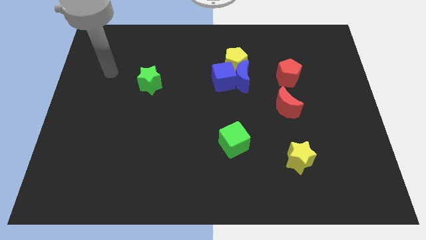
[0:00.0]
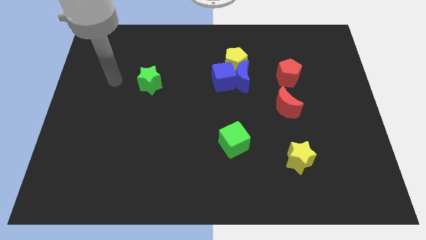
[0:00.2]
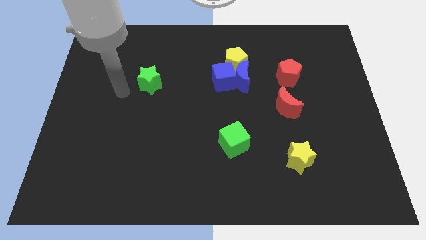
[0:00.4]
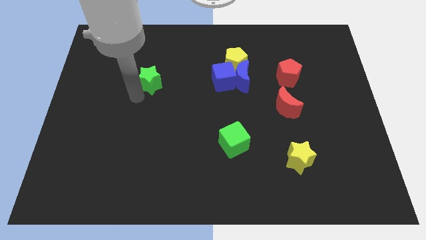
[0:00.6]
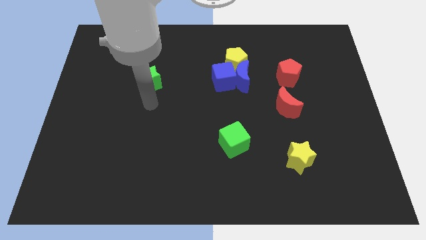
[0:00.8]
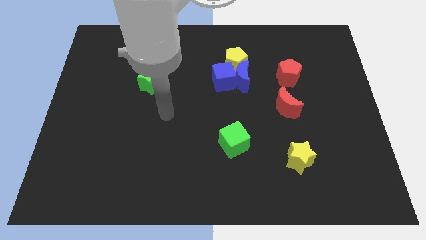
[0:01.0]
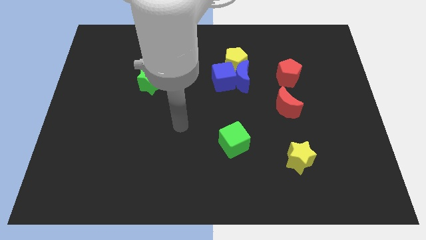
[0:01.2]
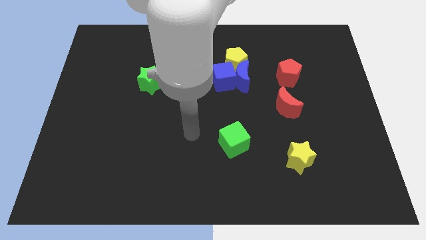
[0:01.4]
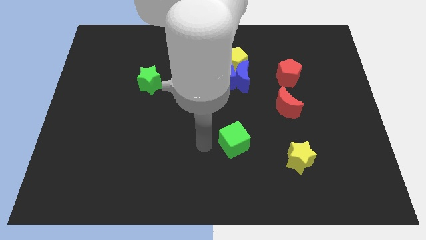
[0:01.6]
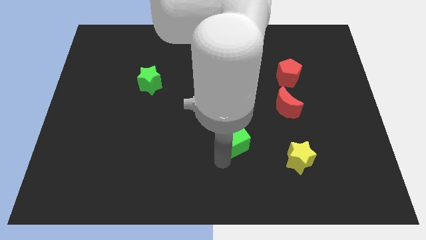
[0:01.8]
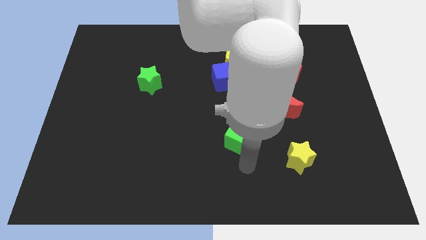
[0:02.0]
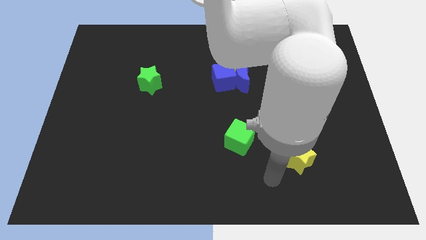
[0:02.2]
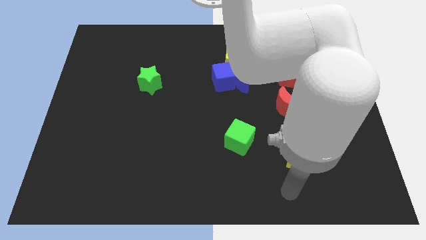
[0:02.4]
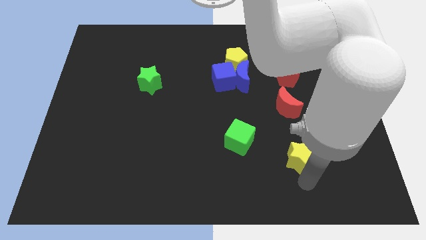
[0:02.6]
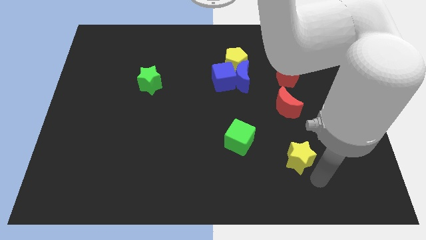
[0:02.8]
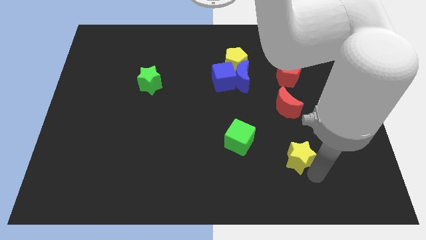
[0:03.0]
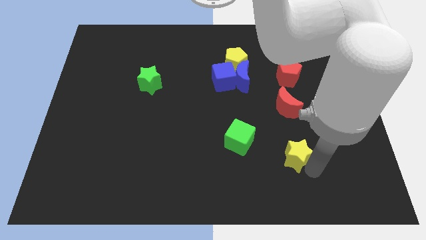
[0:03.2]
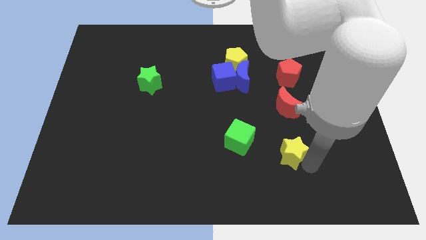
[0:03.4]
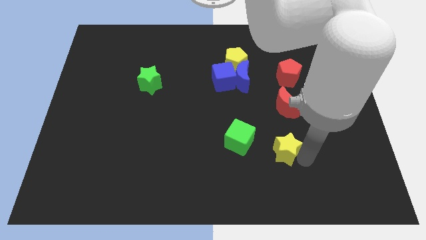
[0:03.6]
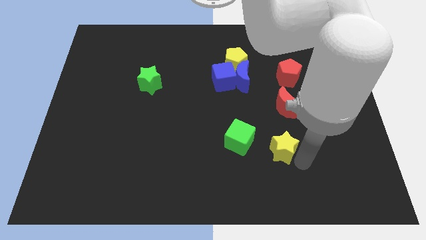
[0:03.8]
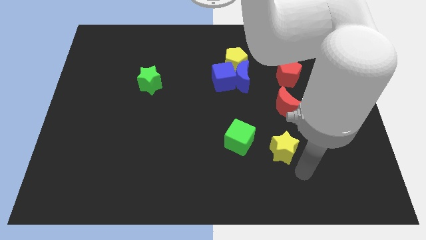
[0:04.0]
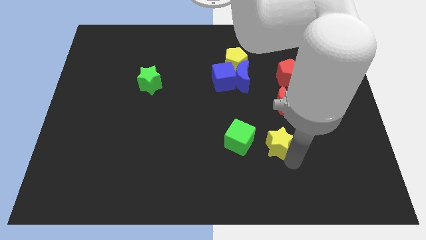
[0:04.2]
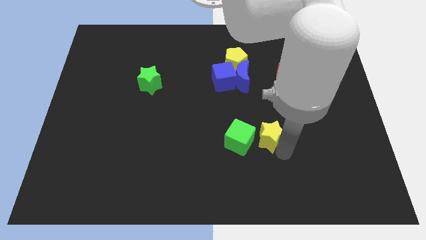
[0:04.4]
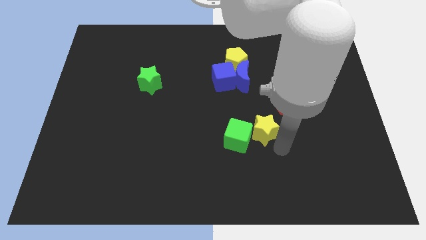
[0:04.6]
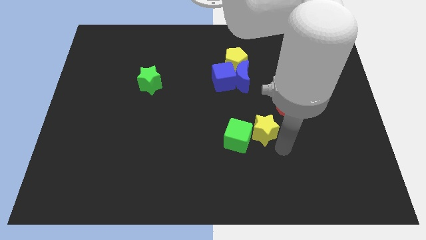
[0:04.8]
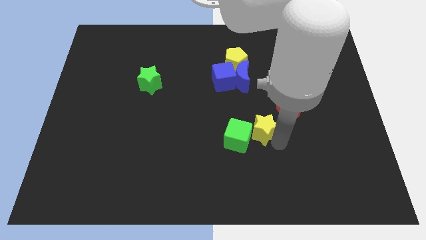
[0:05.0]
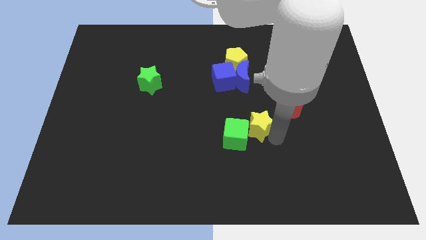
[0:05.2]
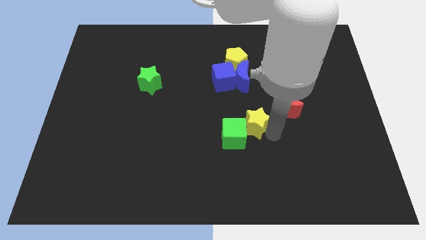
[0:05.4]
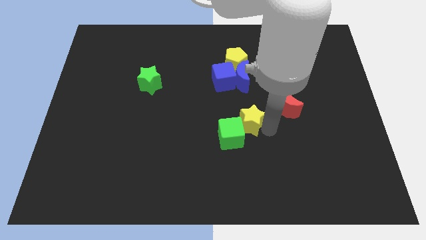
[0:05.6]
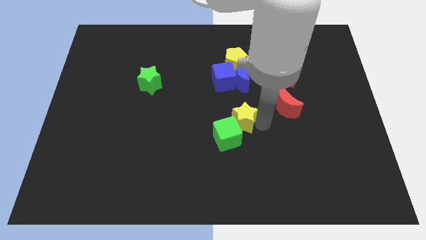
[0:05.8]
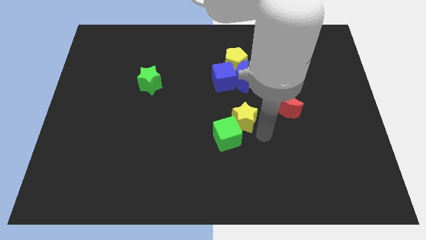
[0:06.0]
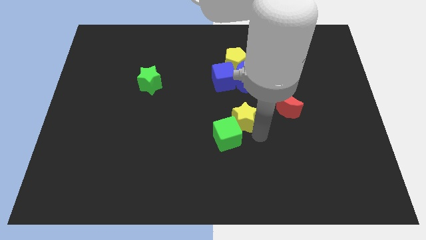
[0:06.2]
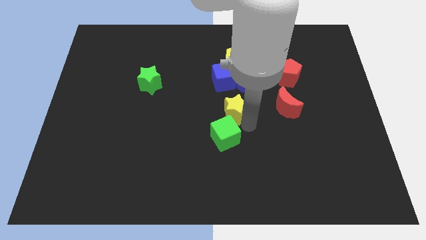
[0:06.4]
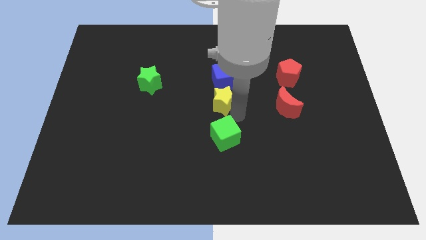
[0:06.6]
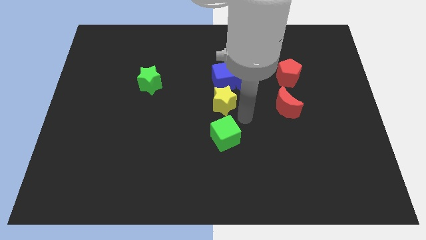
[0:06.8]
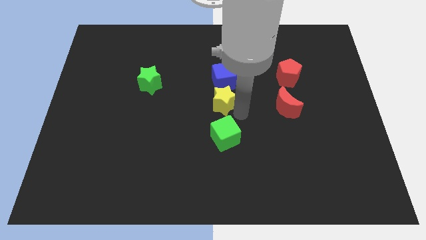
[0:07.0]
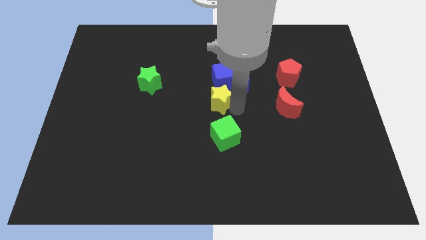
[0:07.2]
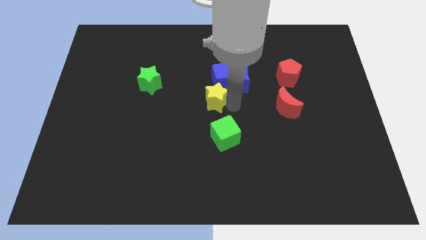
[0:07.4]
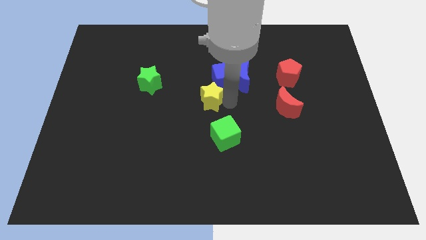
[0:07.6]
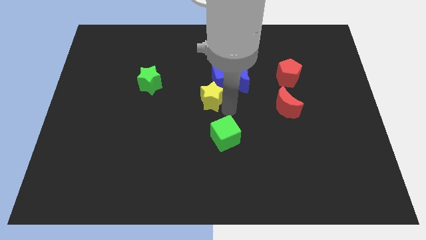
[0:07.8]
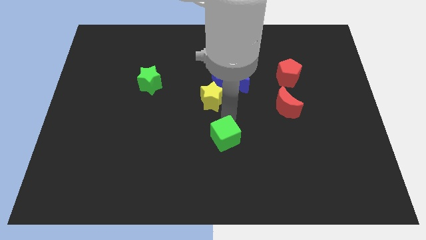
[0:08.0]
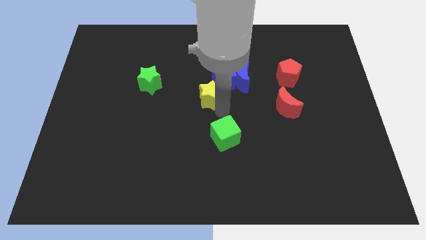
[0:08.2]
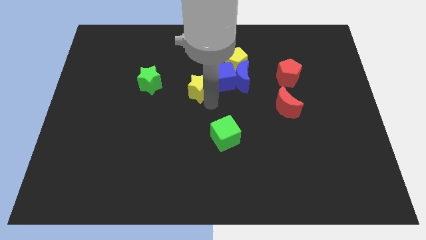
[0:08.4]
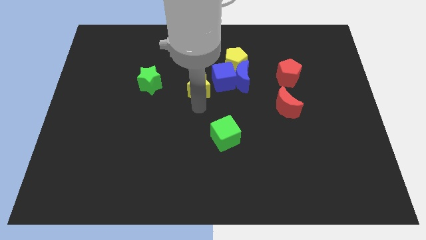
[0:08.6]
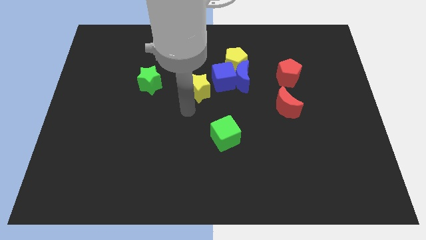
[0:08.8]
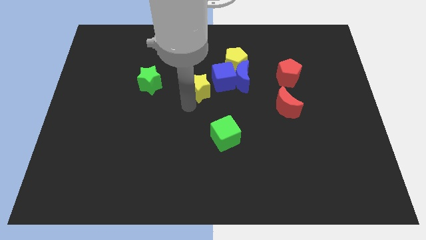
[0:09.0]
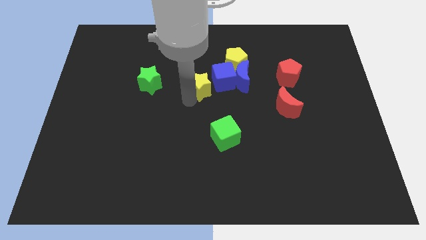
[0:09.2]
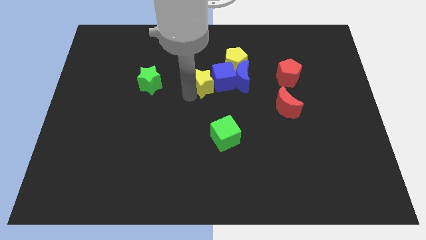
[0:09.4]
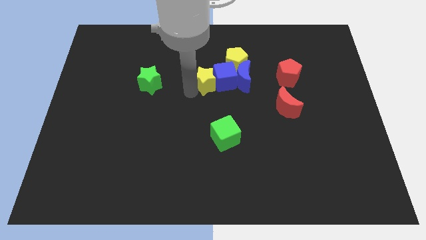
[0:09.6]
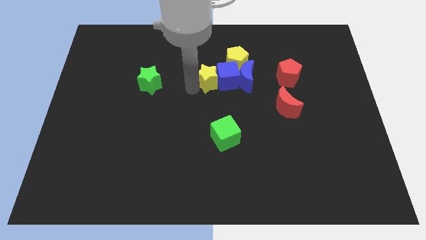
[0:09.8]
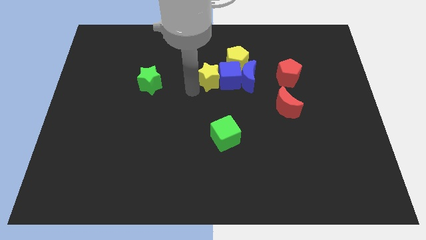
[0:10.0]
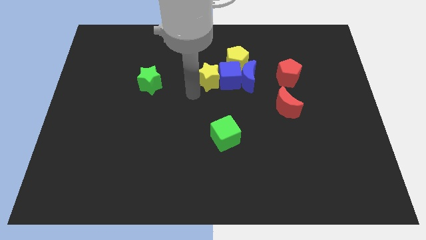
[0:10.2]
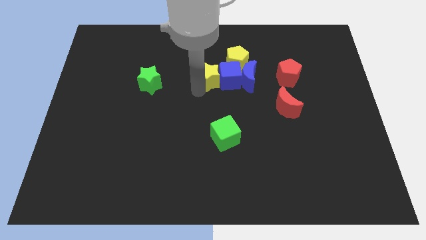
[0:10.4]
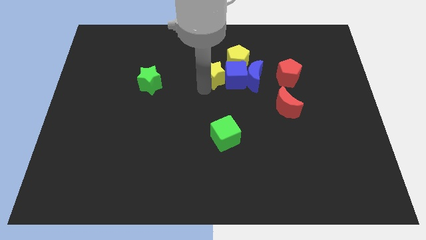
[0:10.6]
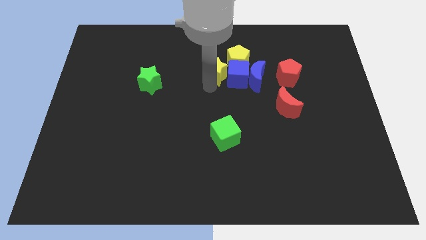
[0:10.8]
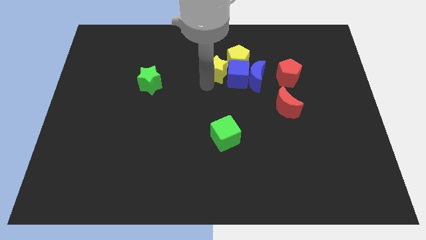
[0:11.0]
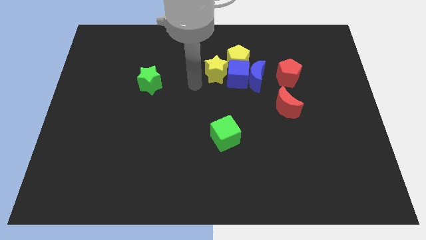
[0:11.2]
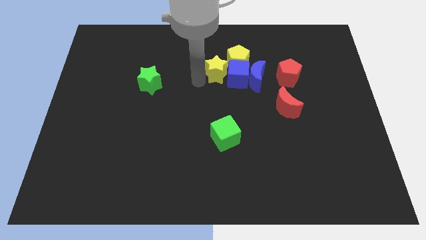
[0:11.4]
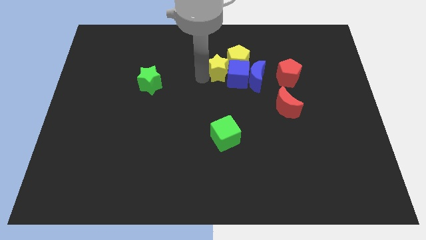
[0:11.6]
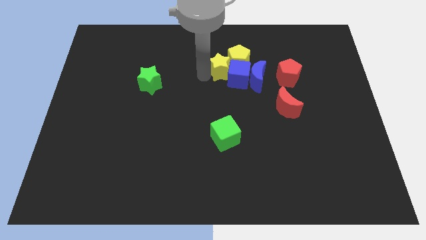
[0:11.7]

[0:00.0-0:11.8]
move the yellow star to the top left of the blue moon

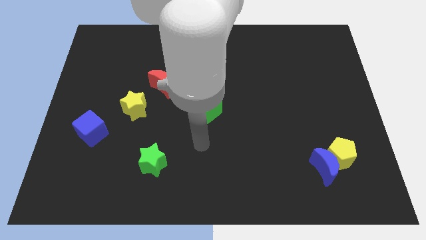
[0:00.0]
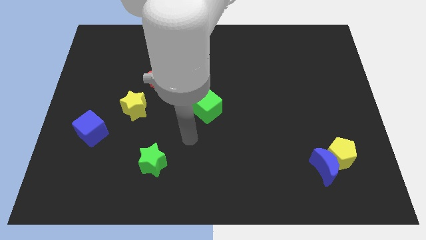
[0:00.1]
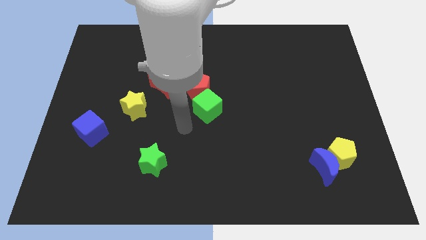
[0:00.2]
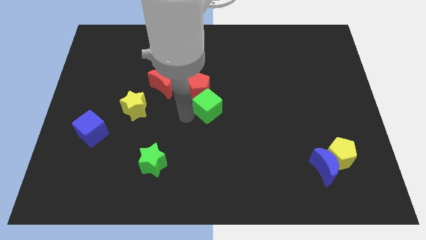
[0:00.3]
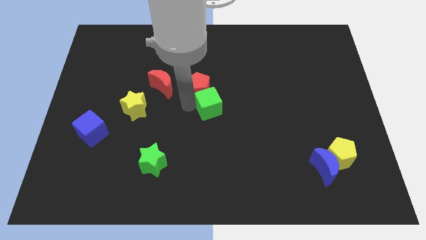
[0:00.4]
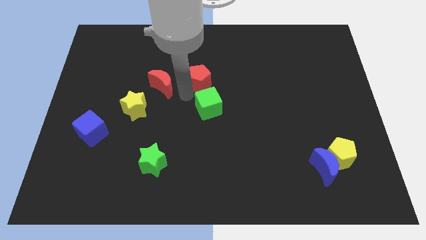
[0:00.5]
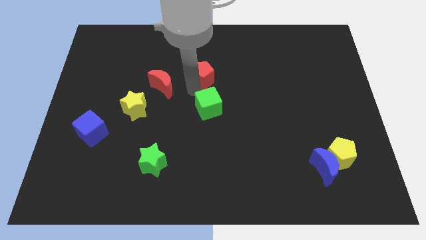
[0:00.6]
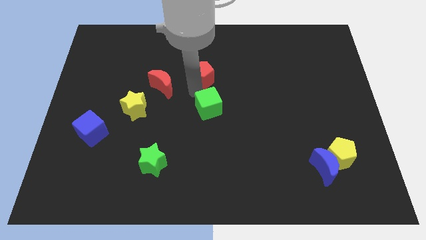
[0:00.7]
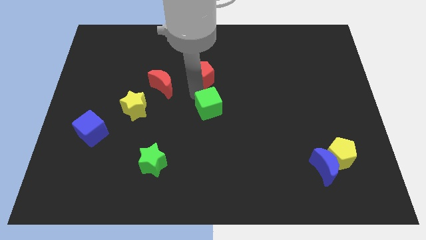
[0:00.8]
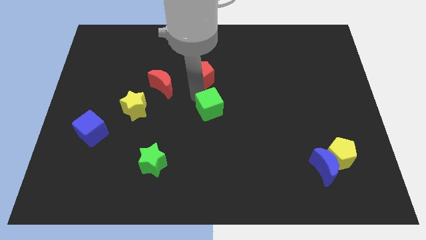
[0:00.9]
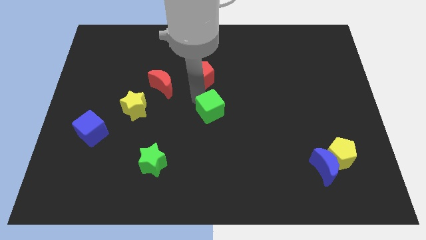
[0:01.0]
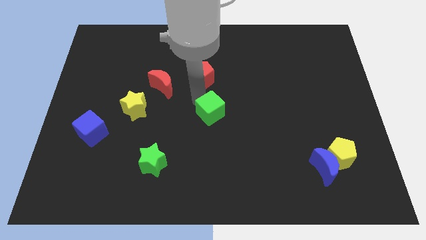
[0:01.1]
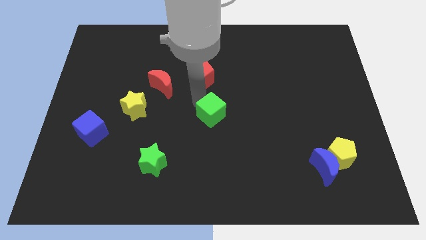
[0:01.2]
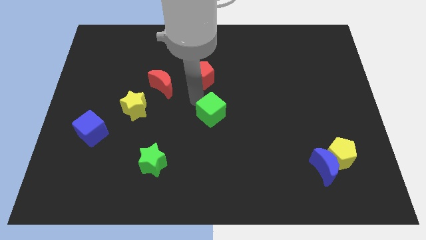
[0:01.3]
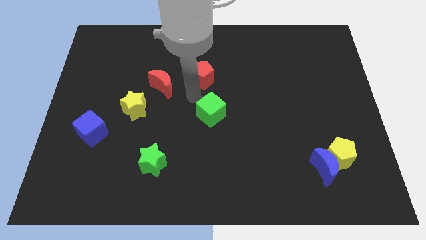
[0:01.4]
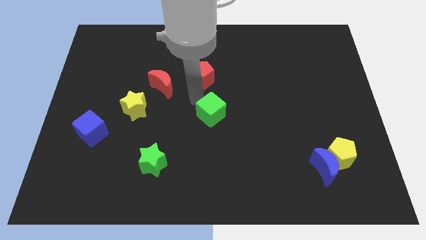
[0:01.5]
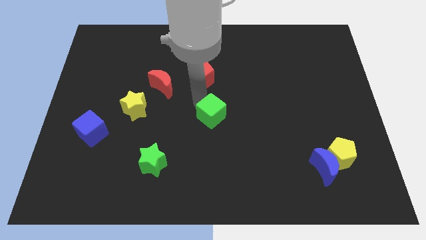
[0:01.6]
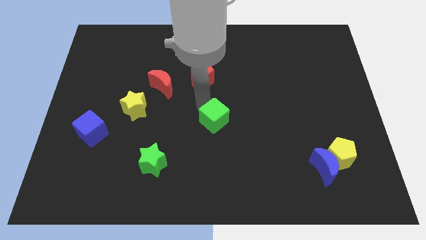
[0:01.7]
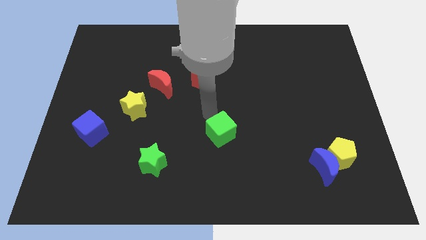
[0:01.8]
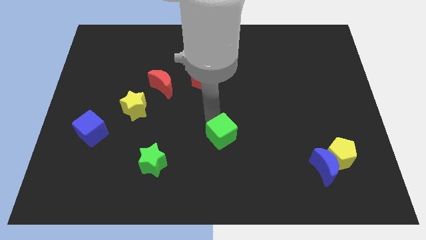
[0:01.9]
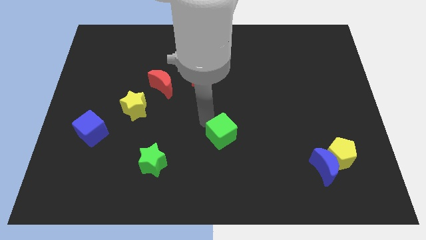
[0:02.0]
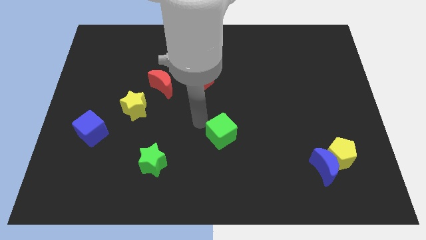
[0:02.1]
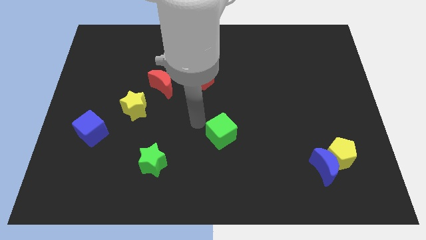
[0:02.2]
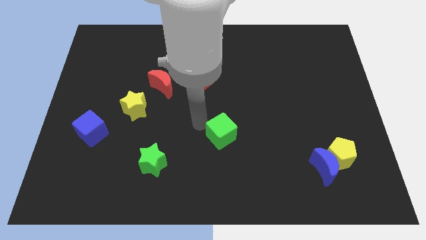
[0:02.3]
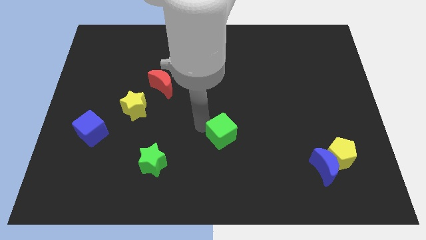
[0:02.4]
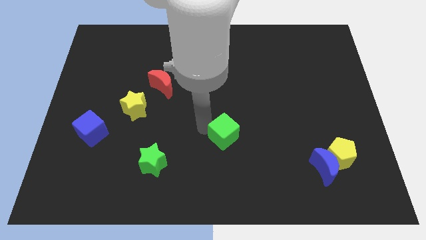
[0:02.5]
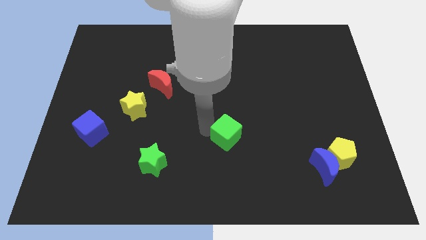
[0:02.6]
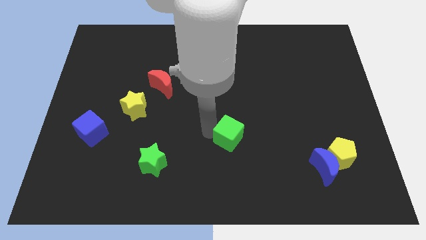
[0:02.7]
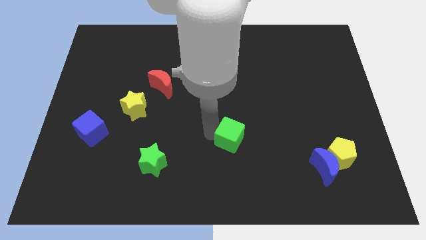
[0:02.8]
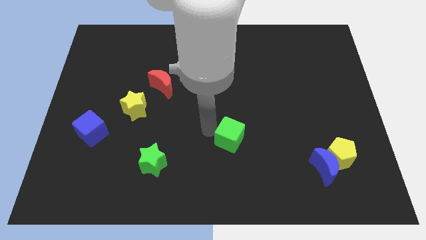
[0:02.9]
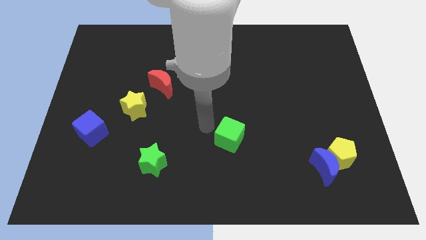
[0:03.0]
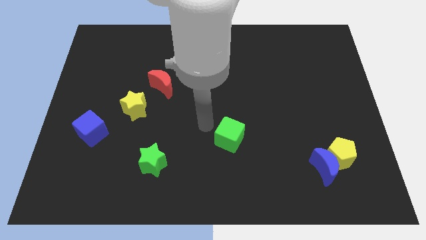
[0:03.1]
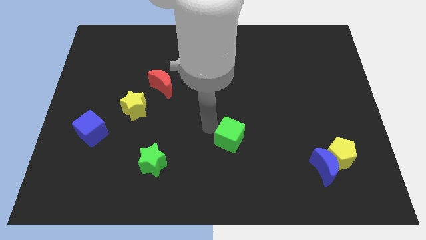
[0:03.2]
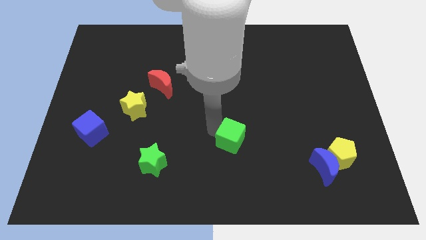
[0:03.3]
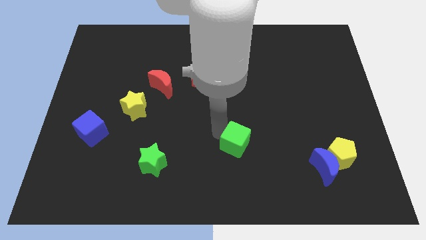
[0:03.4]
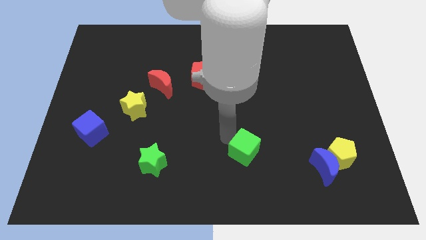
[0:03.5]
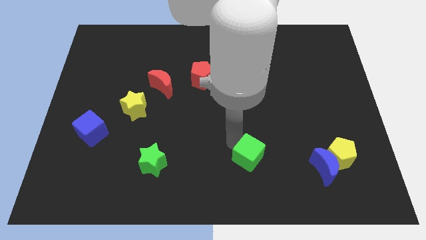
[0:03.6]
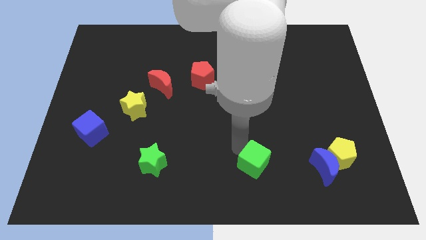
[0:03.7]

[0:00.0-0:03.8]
put the green cube left of the blue moon
